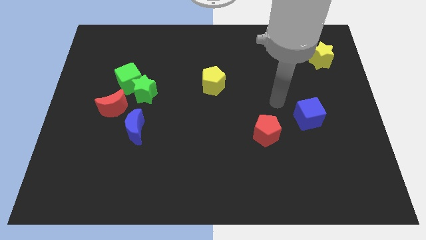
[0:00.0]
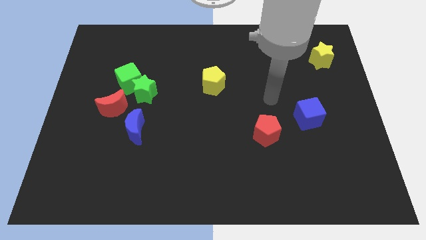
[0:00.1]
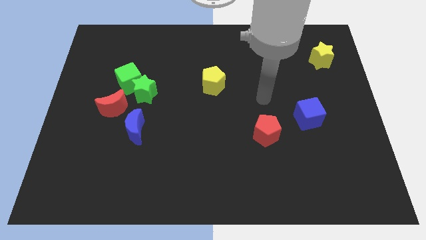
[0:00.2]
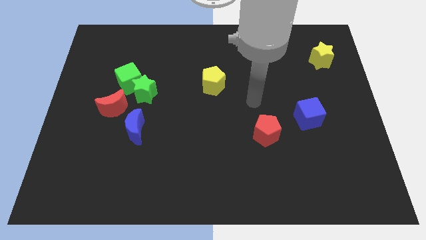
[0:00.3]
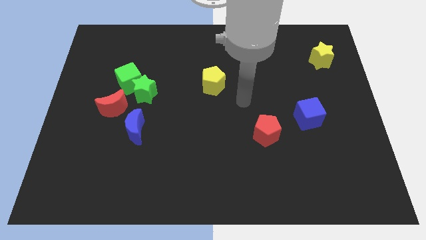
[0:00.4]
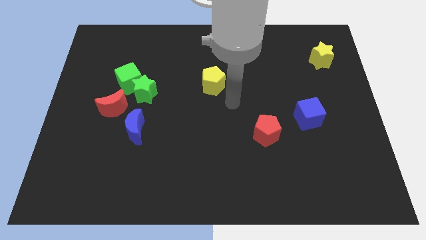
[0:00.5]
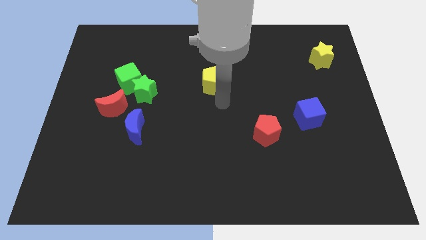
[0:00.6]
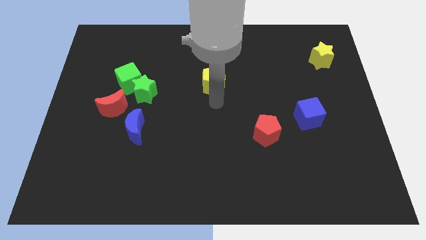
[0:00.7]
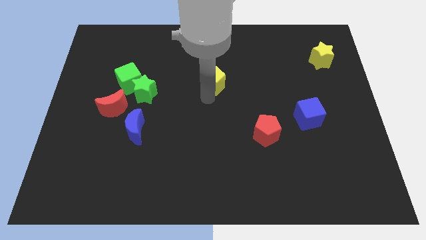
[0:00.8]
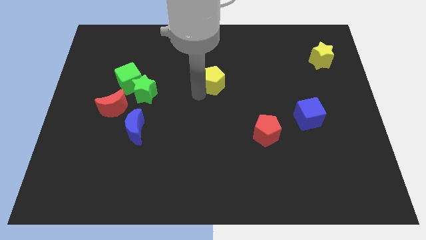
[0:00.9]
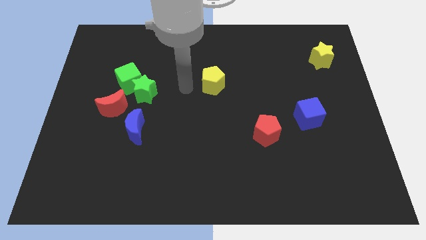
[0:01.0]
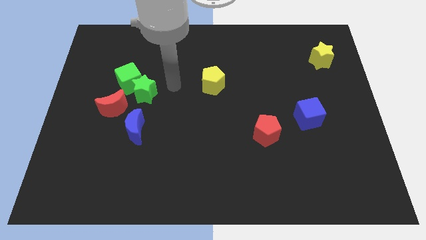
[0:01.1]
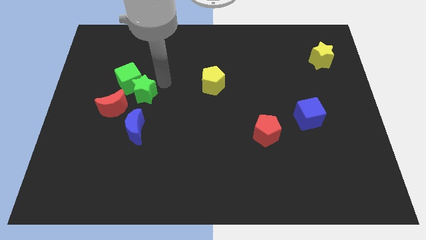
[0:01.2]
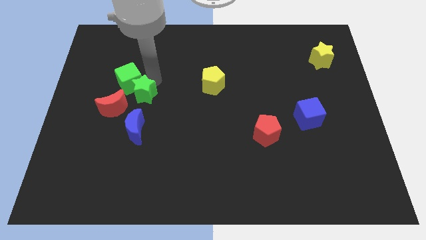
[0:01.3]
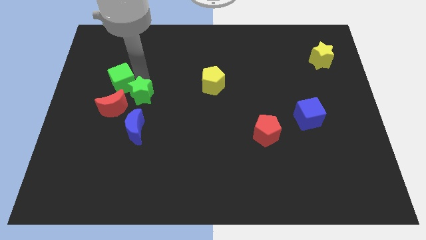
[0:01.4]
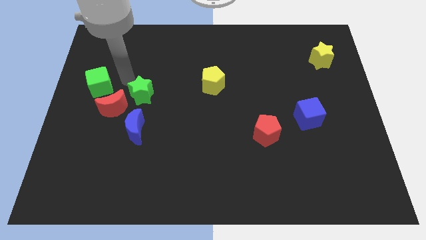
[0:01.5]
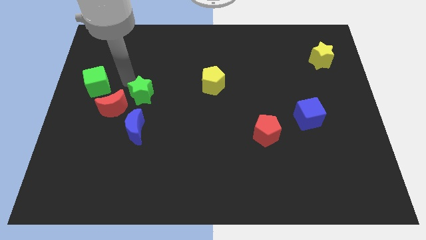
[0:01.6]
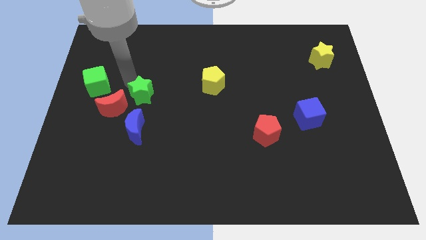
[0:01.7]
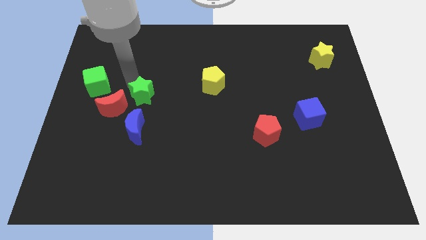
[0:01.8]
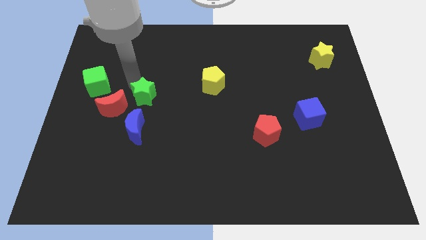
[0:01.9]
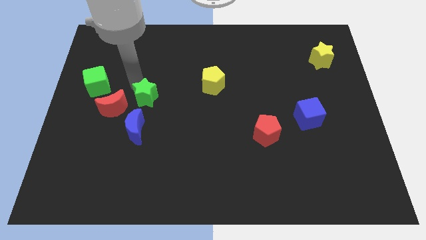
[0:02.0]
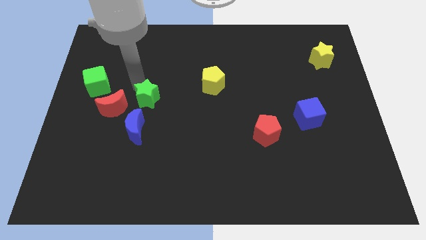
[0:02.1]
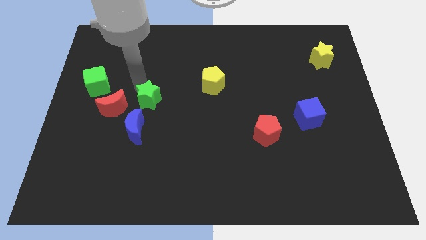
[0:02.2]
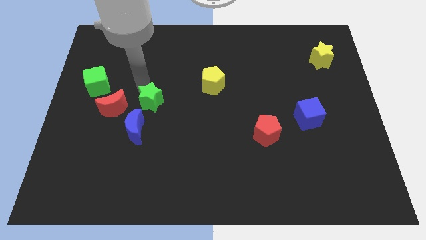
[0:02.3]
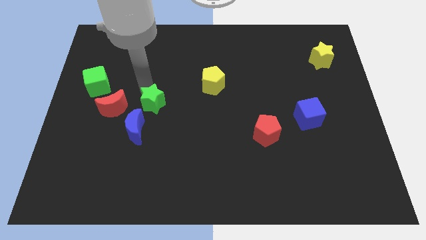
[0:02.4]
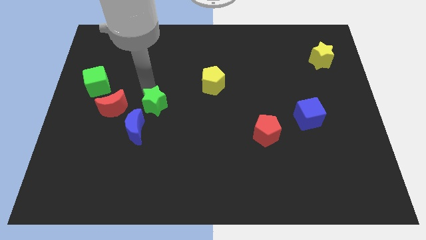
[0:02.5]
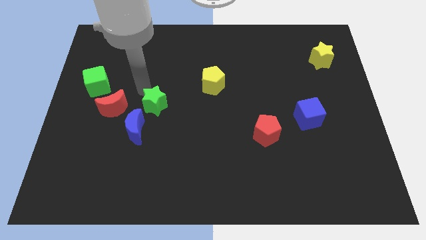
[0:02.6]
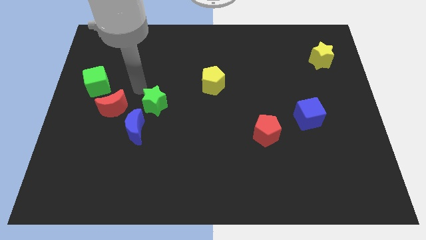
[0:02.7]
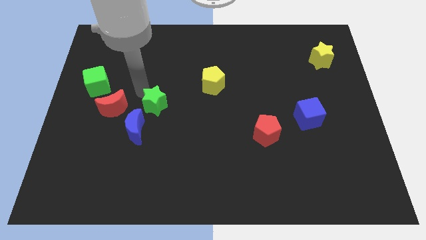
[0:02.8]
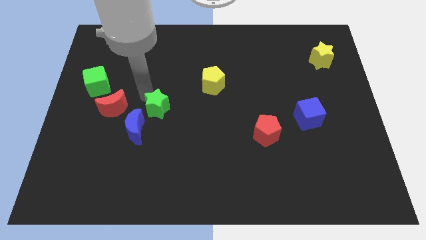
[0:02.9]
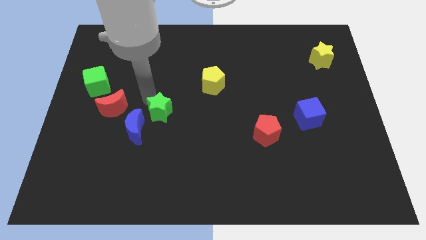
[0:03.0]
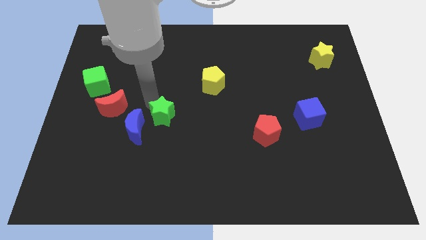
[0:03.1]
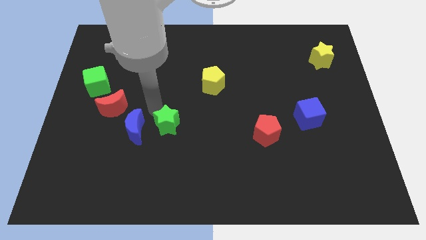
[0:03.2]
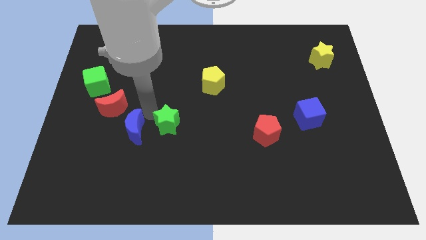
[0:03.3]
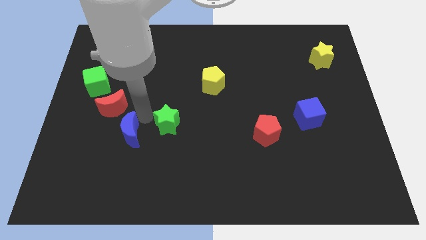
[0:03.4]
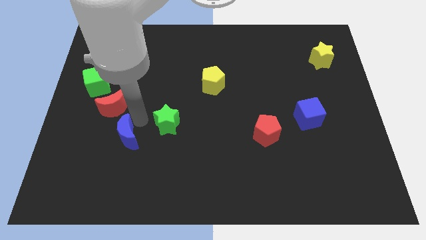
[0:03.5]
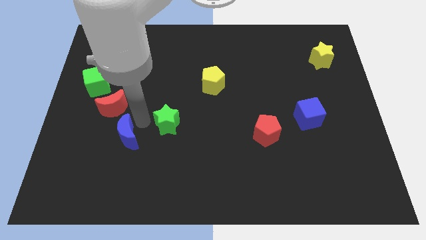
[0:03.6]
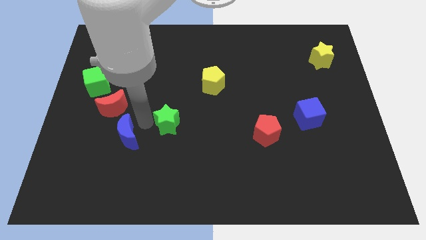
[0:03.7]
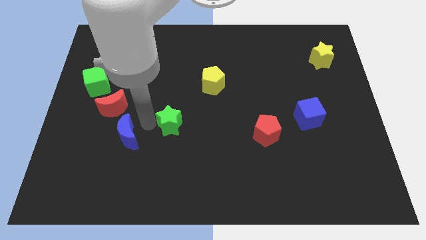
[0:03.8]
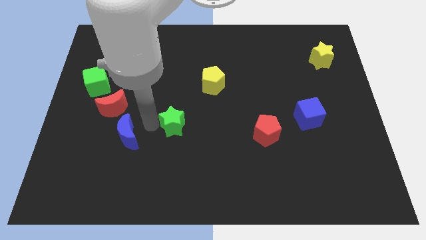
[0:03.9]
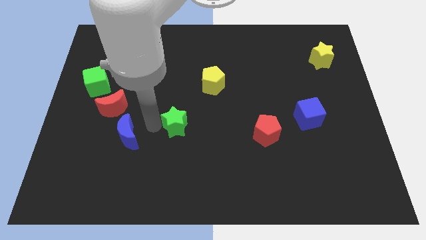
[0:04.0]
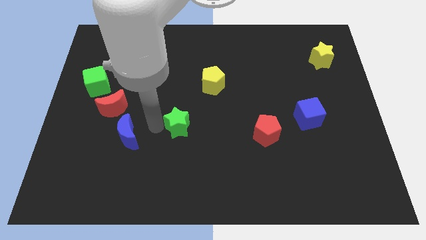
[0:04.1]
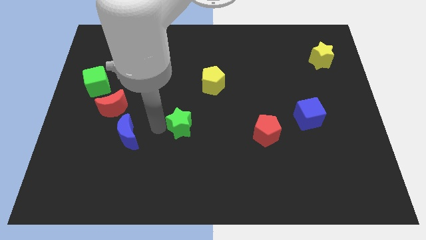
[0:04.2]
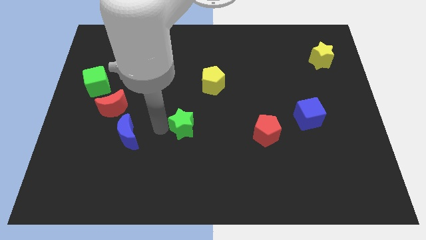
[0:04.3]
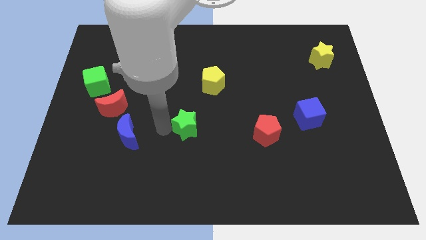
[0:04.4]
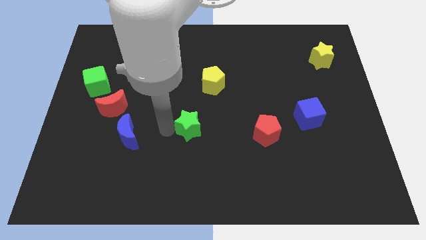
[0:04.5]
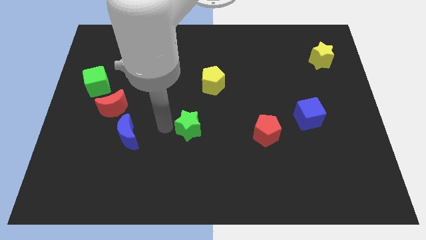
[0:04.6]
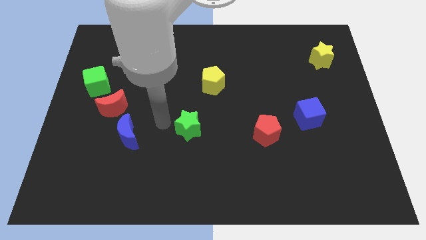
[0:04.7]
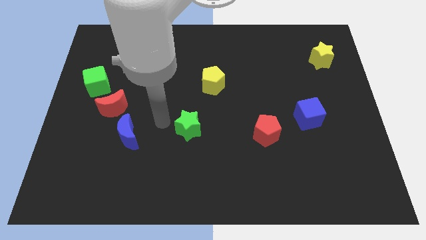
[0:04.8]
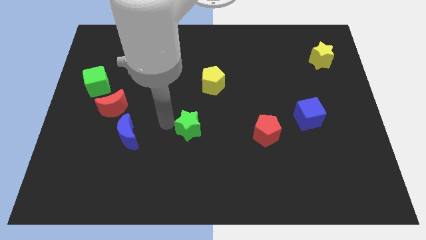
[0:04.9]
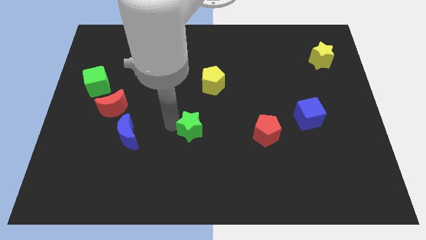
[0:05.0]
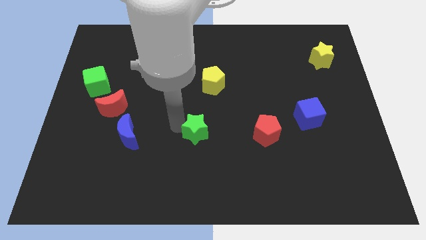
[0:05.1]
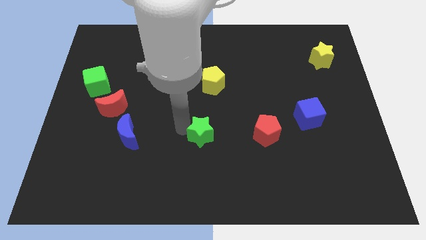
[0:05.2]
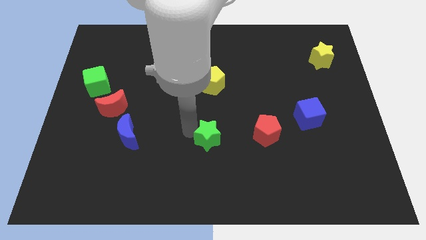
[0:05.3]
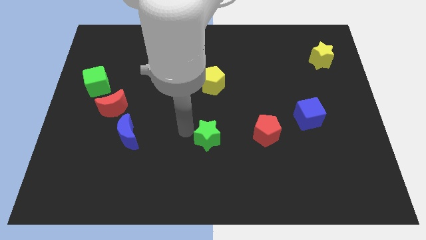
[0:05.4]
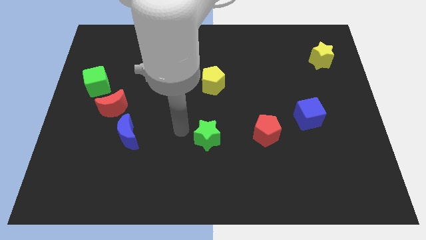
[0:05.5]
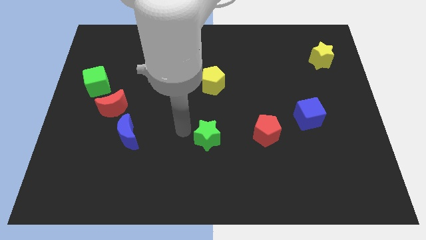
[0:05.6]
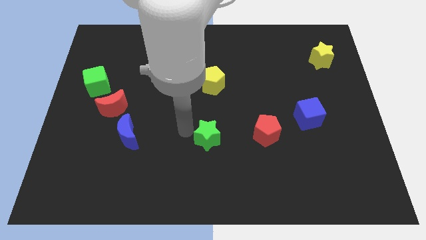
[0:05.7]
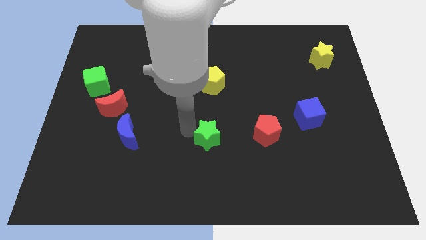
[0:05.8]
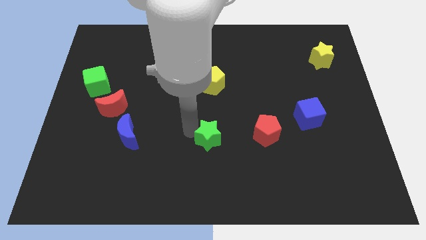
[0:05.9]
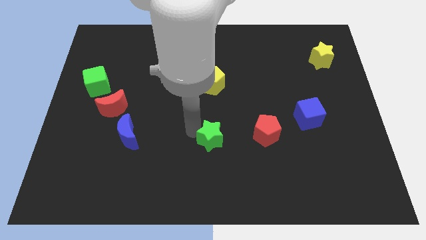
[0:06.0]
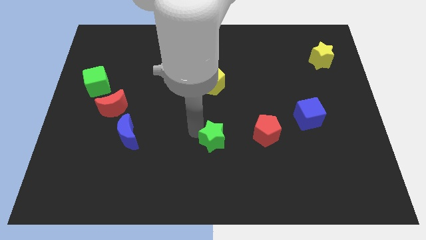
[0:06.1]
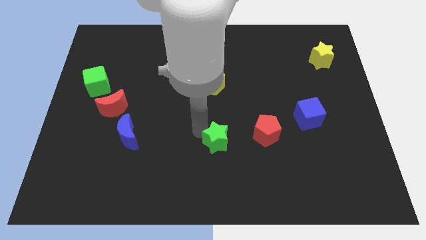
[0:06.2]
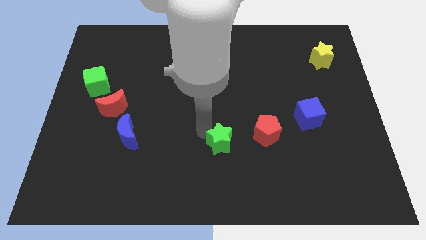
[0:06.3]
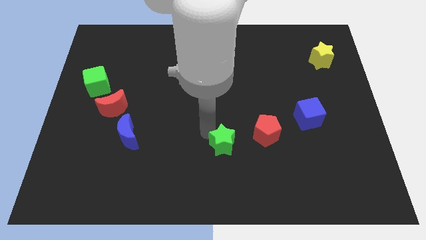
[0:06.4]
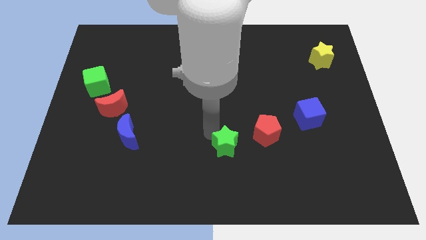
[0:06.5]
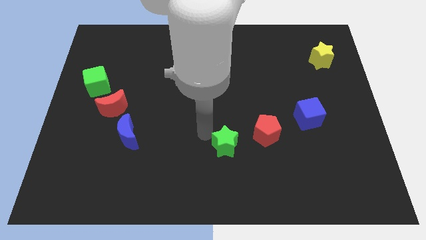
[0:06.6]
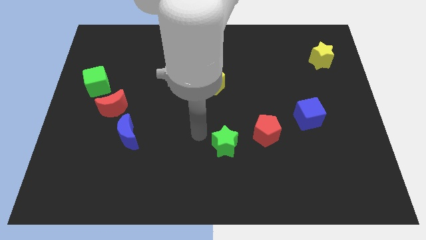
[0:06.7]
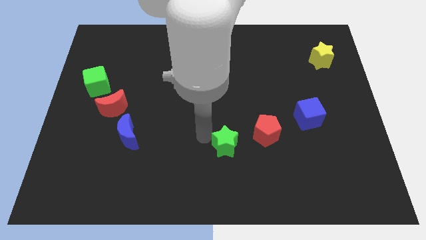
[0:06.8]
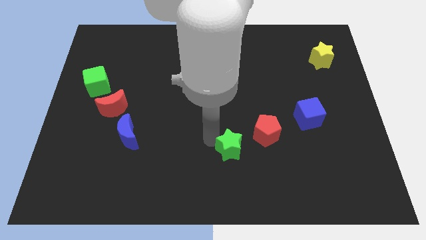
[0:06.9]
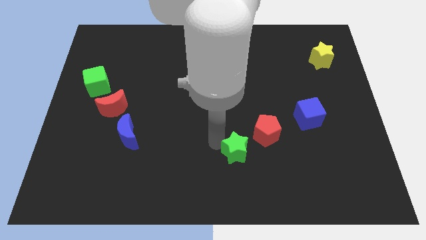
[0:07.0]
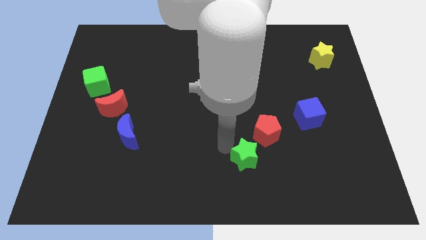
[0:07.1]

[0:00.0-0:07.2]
slide the green star to the bottom side of the red pentagon
